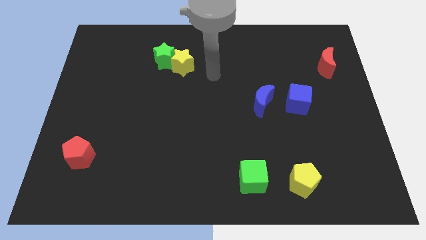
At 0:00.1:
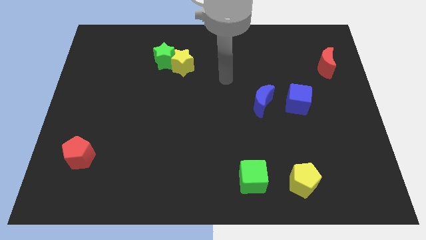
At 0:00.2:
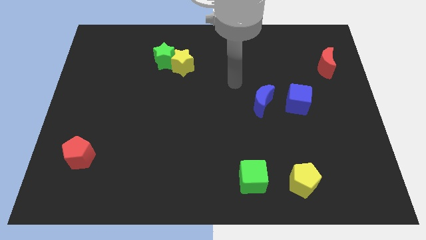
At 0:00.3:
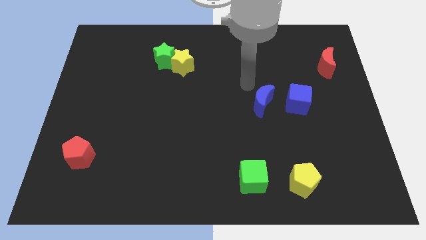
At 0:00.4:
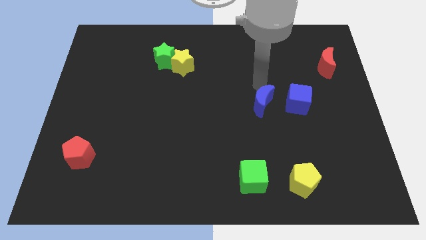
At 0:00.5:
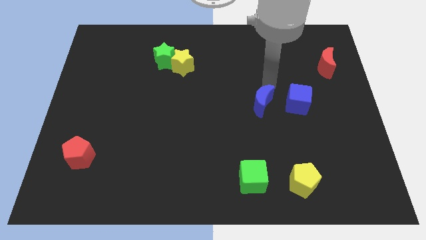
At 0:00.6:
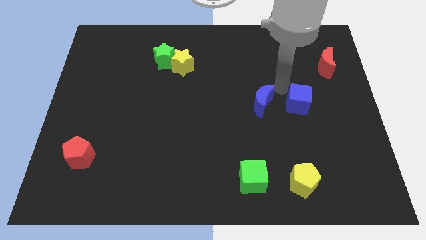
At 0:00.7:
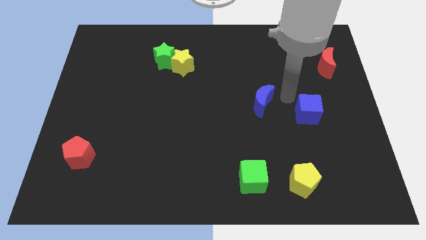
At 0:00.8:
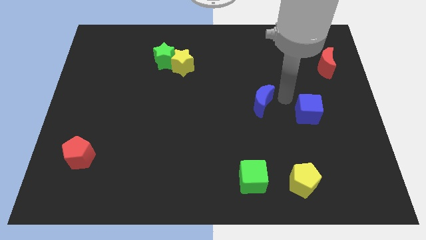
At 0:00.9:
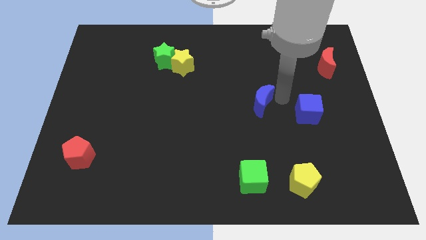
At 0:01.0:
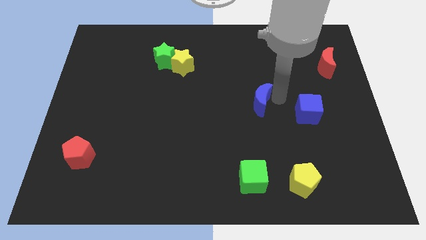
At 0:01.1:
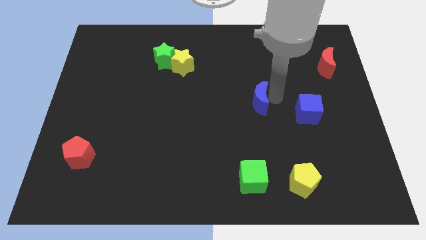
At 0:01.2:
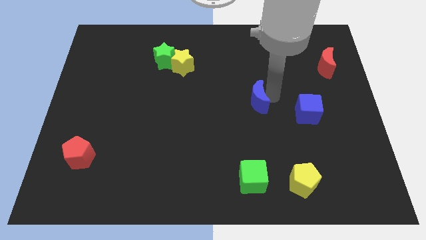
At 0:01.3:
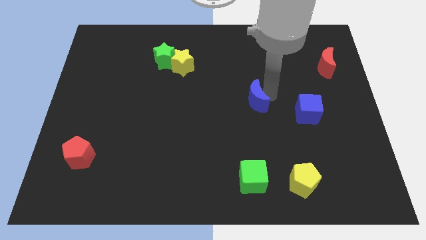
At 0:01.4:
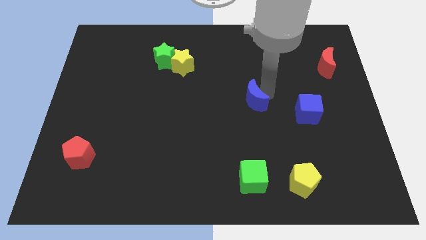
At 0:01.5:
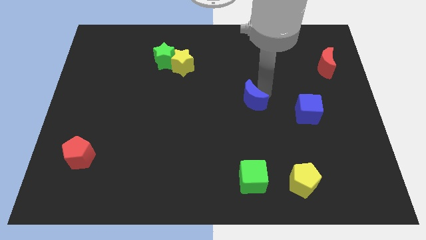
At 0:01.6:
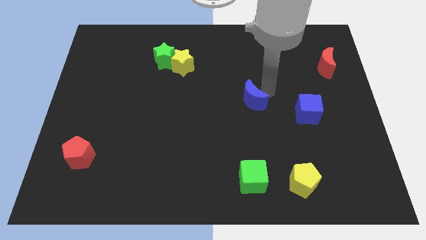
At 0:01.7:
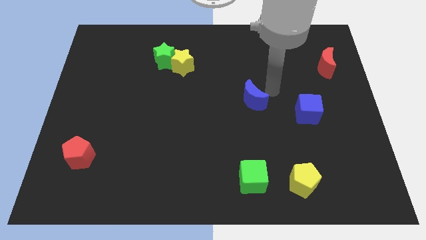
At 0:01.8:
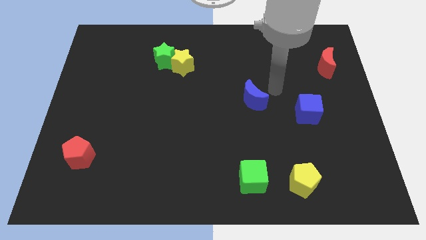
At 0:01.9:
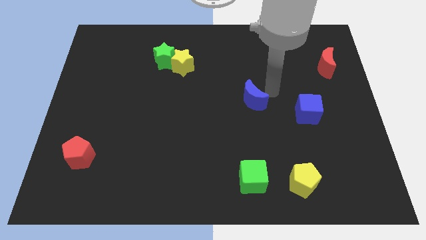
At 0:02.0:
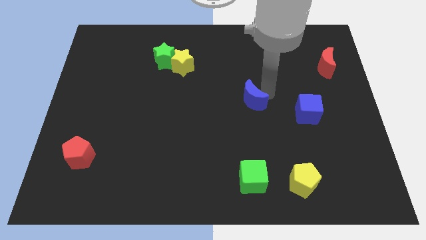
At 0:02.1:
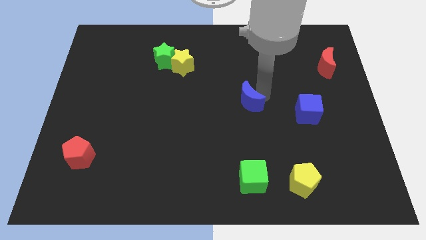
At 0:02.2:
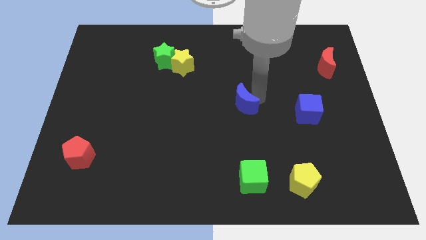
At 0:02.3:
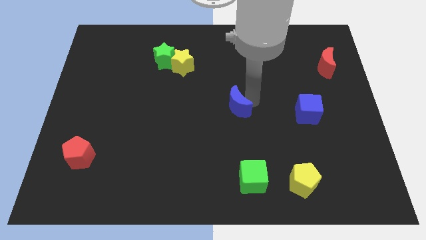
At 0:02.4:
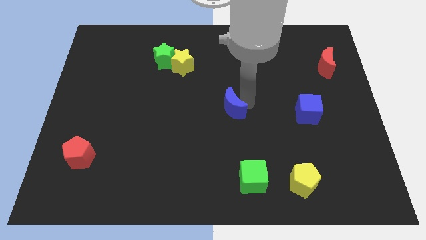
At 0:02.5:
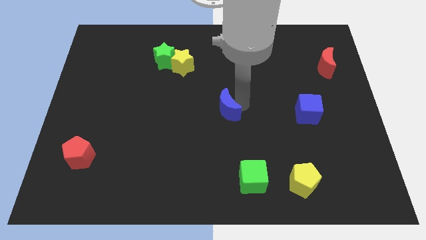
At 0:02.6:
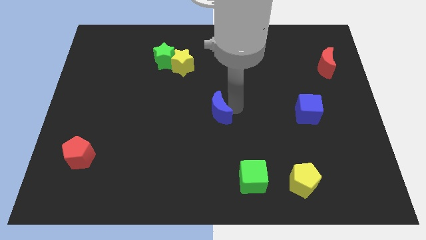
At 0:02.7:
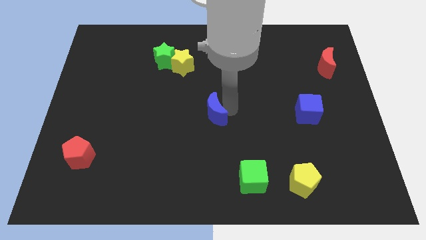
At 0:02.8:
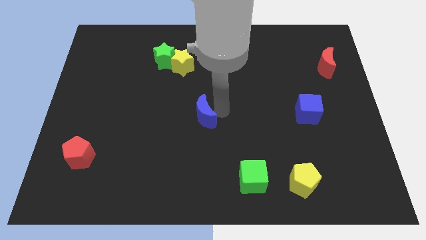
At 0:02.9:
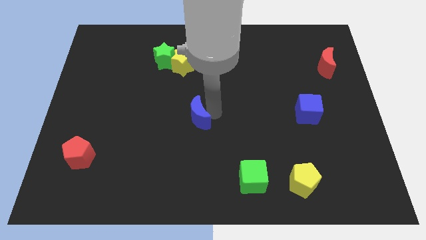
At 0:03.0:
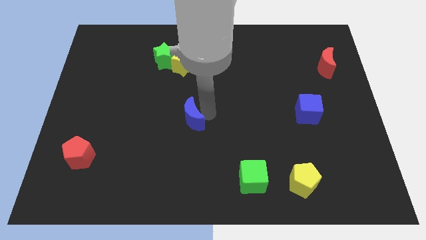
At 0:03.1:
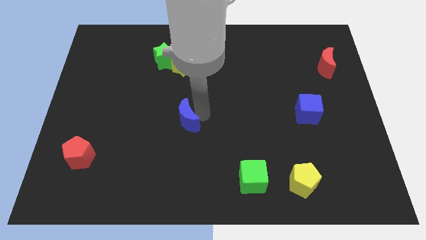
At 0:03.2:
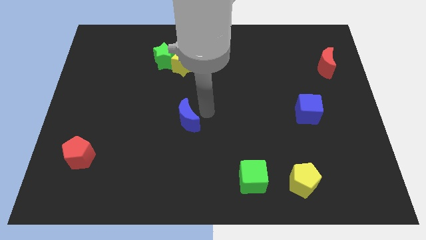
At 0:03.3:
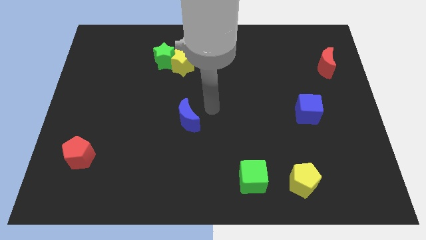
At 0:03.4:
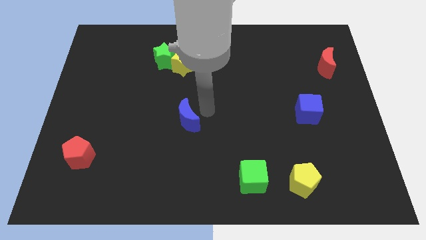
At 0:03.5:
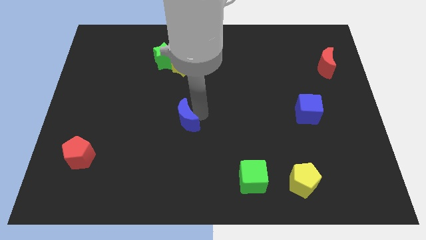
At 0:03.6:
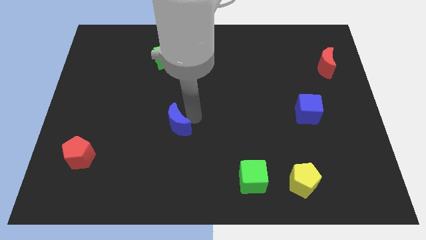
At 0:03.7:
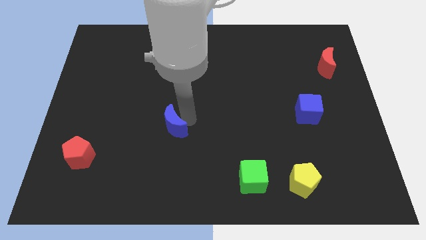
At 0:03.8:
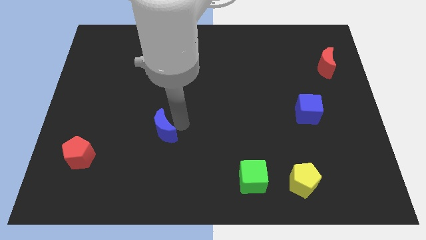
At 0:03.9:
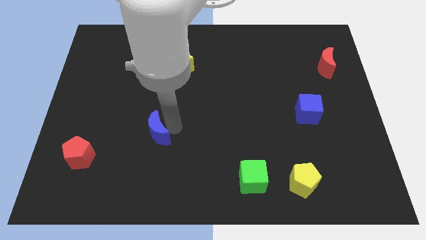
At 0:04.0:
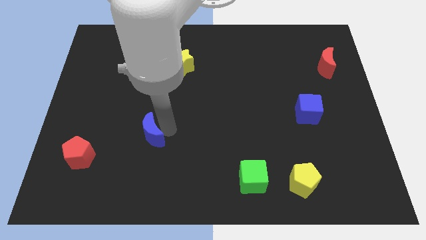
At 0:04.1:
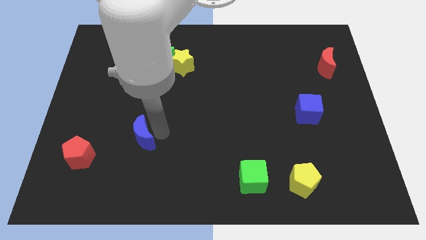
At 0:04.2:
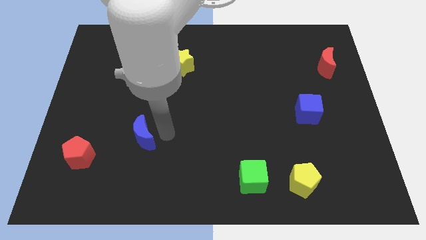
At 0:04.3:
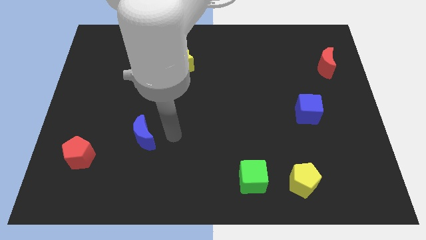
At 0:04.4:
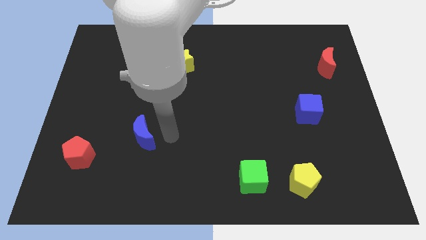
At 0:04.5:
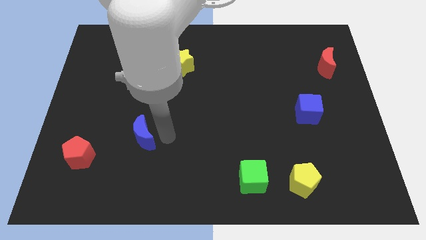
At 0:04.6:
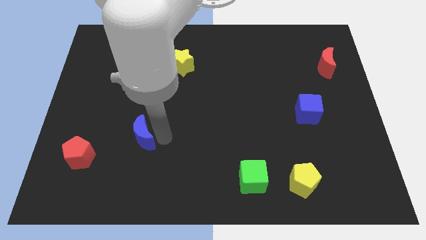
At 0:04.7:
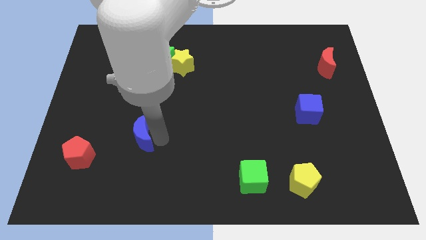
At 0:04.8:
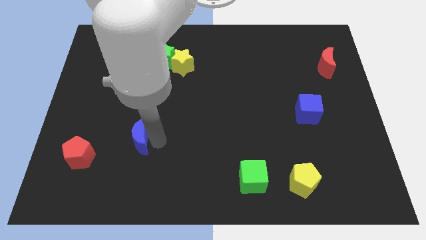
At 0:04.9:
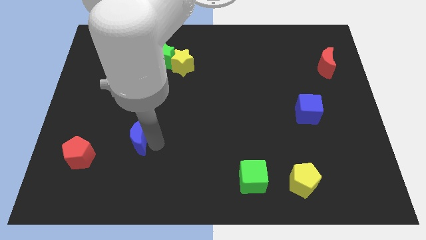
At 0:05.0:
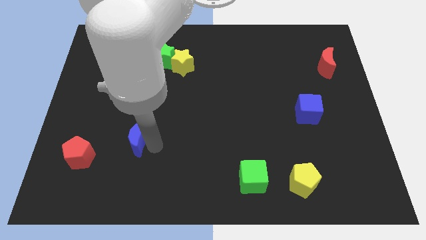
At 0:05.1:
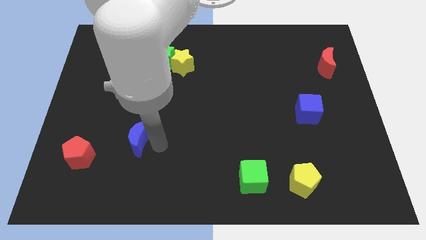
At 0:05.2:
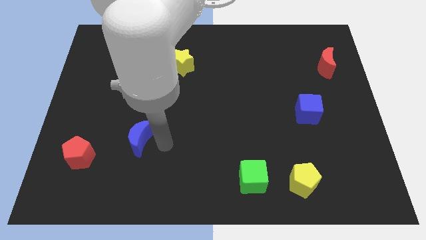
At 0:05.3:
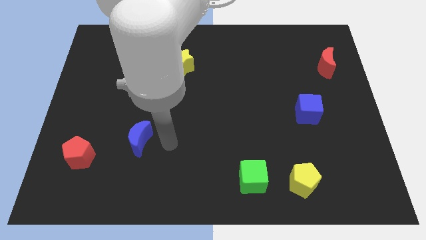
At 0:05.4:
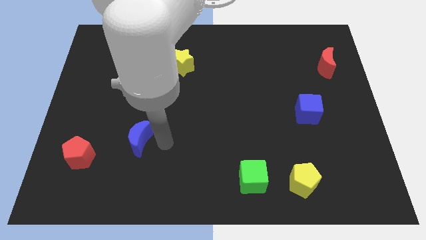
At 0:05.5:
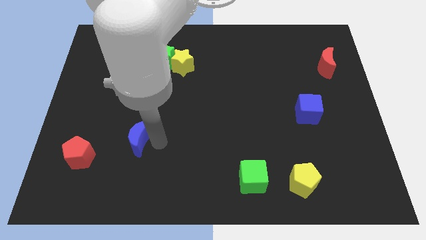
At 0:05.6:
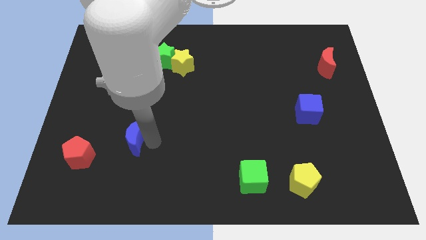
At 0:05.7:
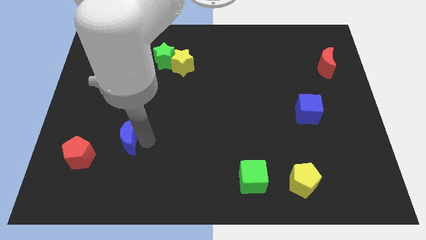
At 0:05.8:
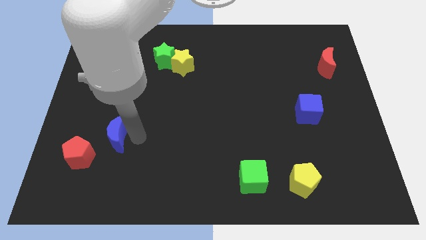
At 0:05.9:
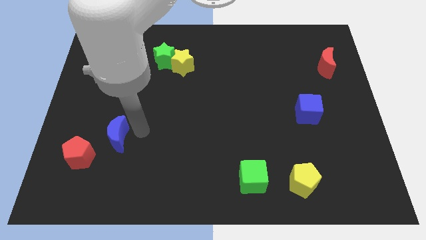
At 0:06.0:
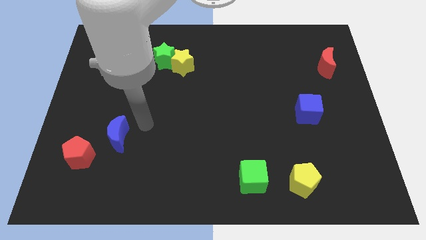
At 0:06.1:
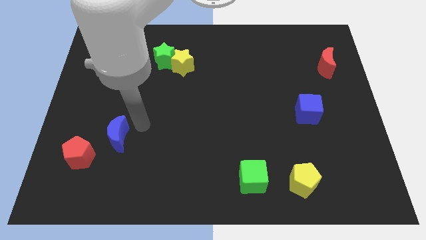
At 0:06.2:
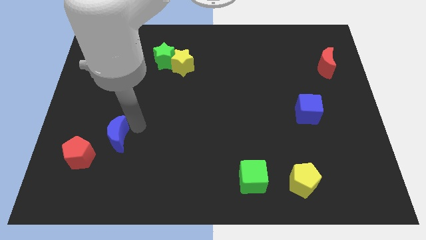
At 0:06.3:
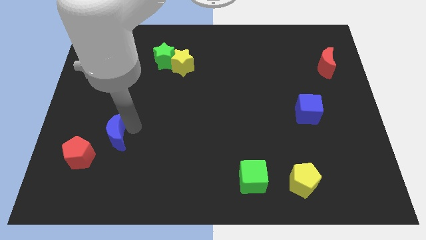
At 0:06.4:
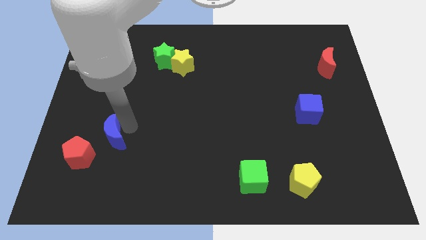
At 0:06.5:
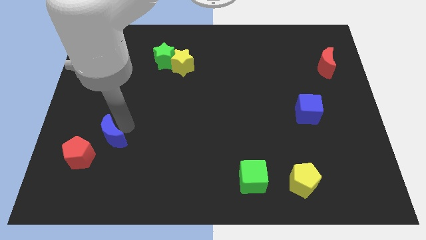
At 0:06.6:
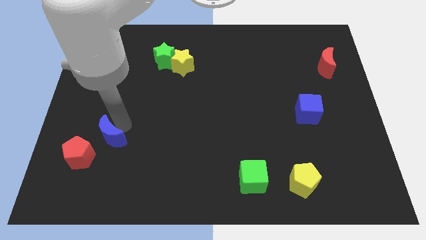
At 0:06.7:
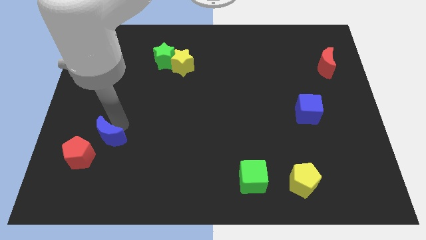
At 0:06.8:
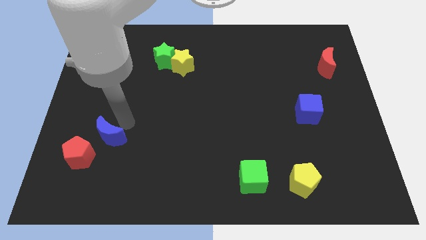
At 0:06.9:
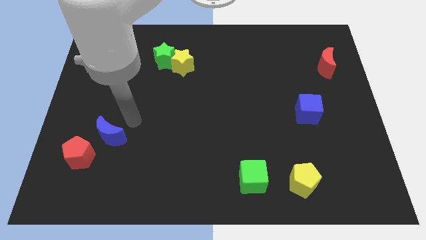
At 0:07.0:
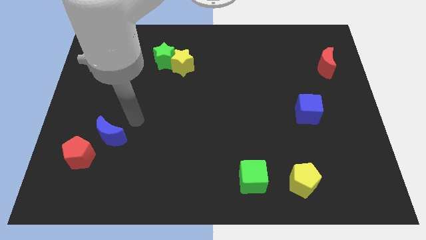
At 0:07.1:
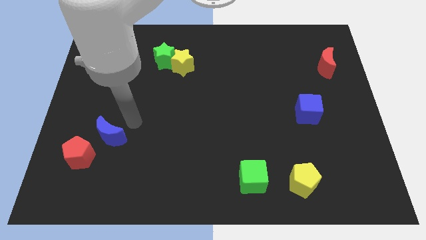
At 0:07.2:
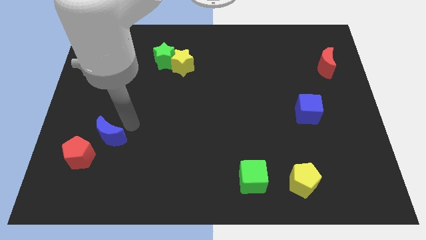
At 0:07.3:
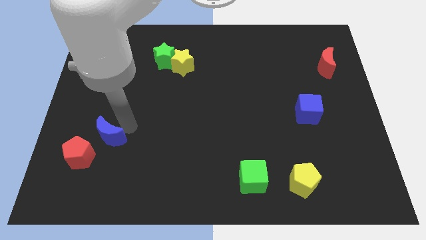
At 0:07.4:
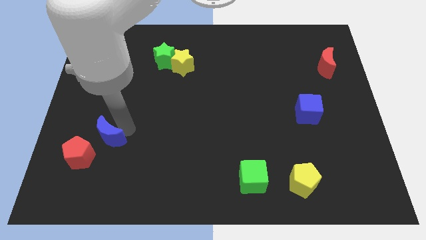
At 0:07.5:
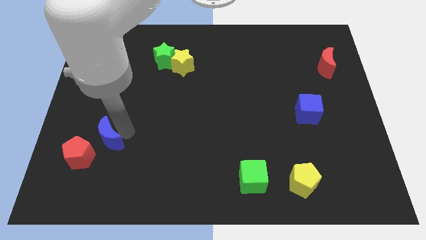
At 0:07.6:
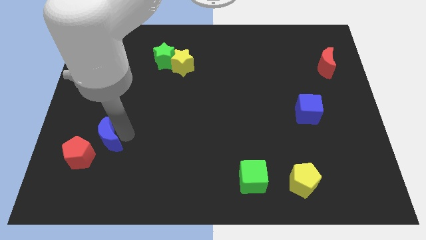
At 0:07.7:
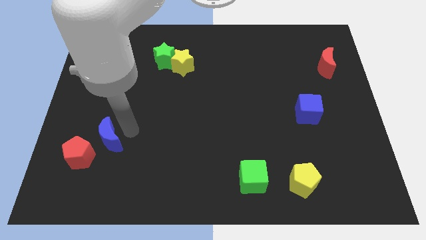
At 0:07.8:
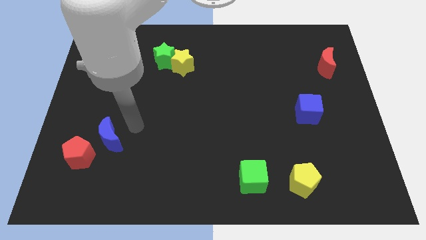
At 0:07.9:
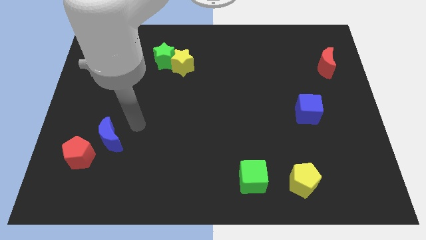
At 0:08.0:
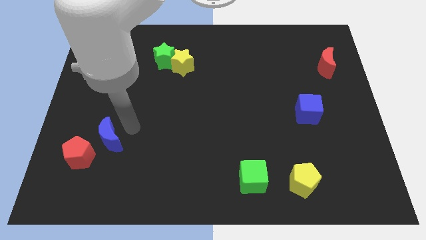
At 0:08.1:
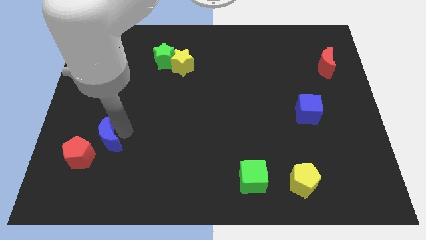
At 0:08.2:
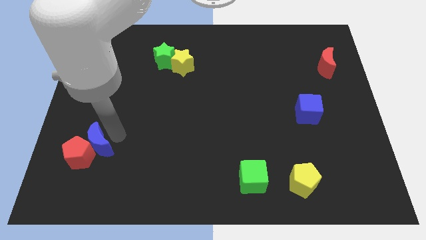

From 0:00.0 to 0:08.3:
put the blue moon close to the red pentagon
